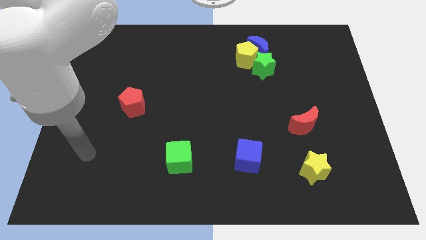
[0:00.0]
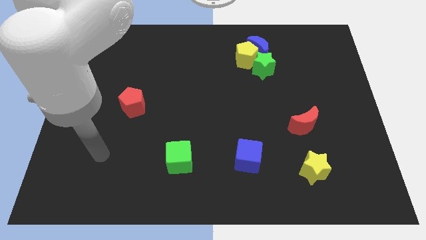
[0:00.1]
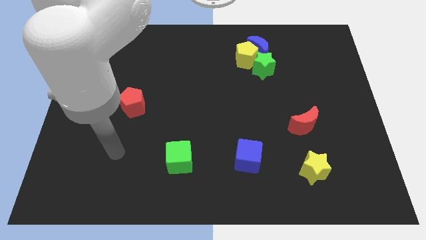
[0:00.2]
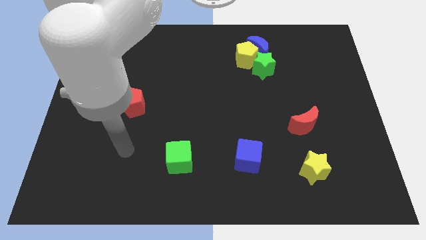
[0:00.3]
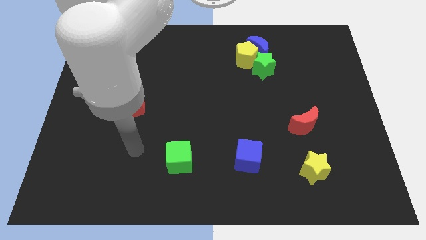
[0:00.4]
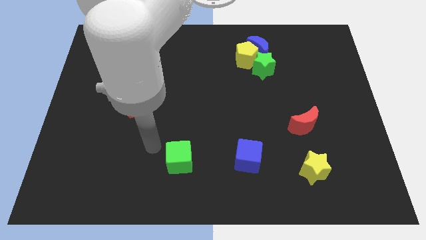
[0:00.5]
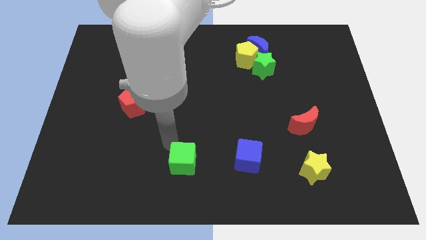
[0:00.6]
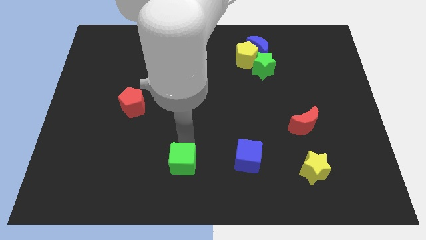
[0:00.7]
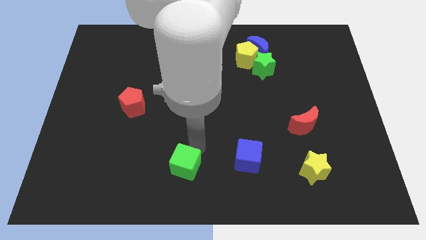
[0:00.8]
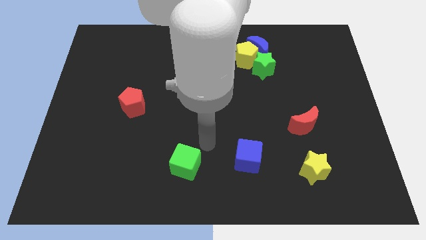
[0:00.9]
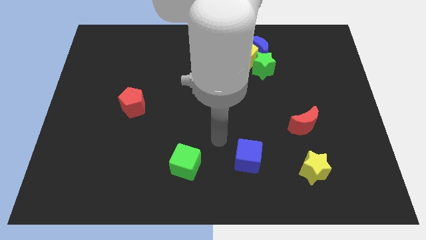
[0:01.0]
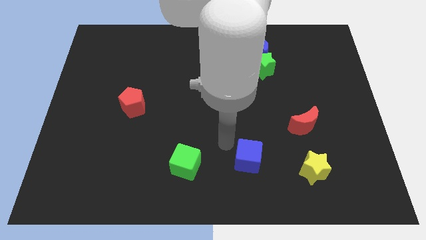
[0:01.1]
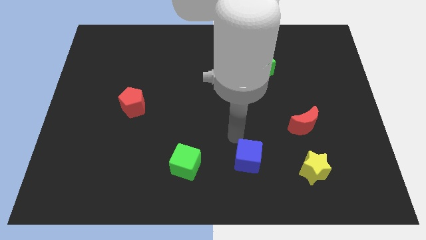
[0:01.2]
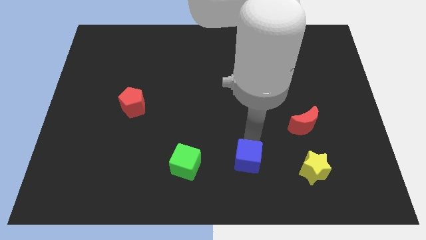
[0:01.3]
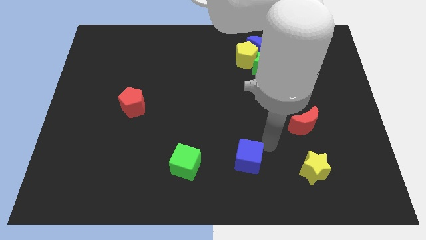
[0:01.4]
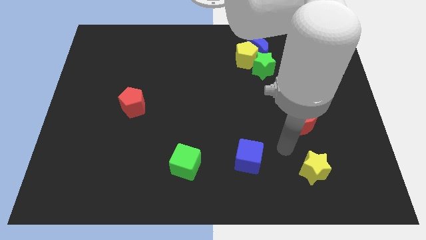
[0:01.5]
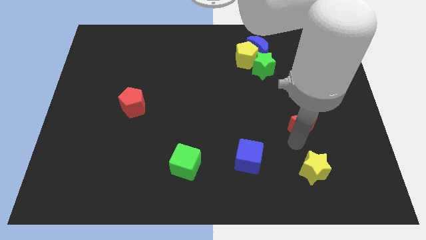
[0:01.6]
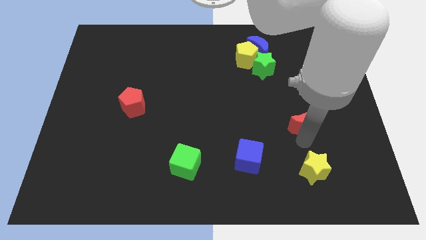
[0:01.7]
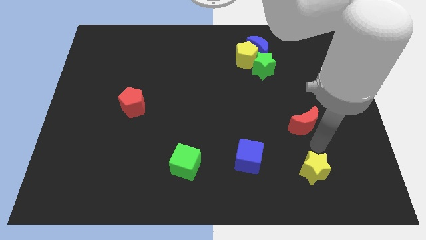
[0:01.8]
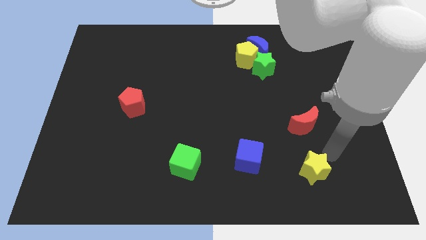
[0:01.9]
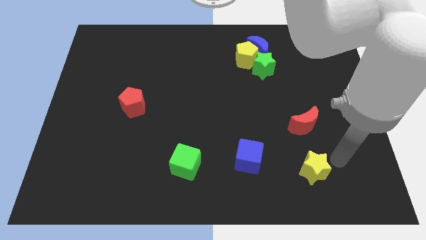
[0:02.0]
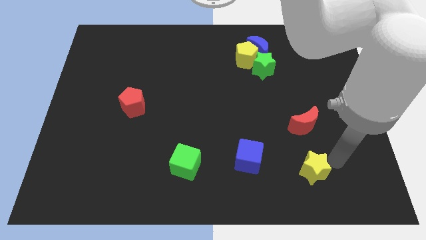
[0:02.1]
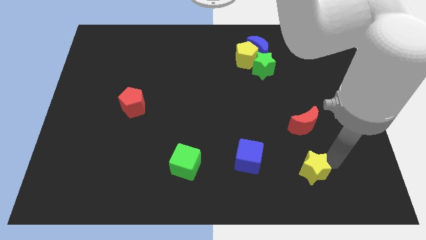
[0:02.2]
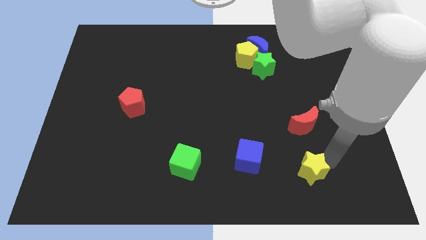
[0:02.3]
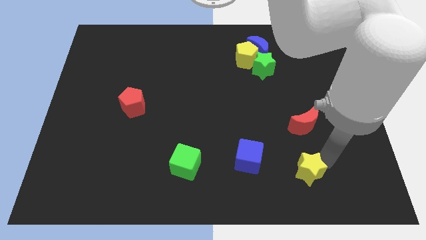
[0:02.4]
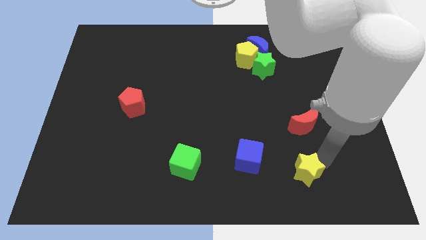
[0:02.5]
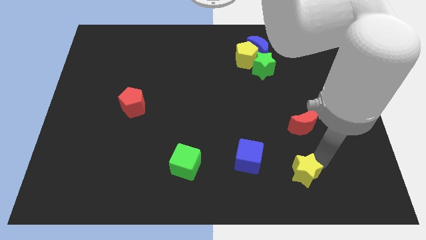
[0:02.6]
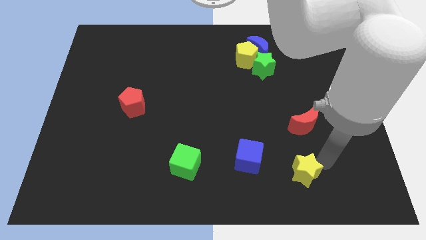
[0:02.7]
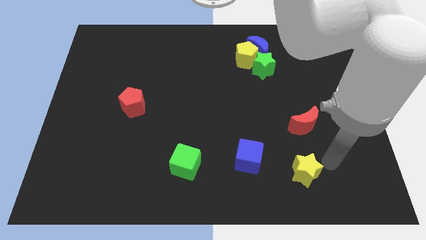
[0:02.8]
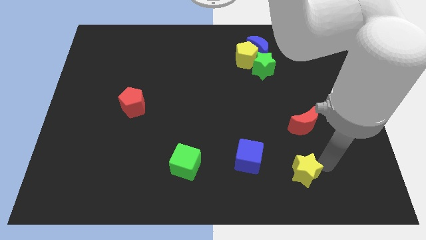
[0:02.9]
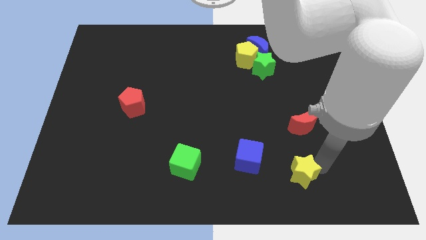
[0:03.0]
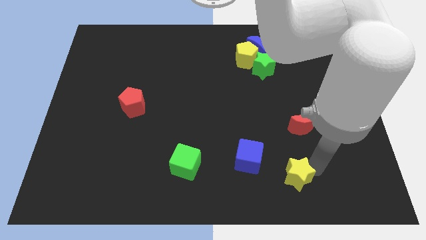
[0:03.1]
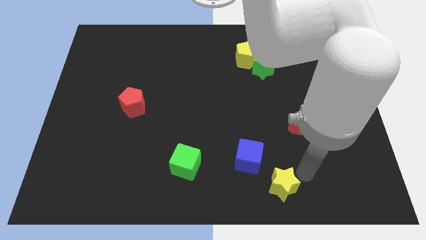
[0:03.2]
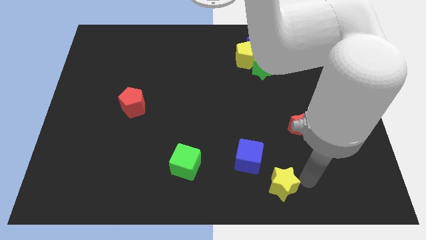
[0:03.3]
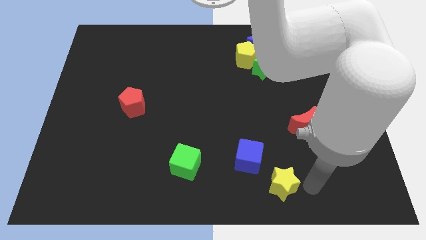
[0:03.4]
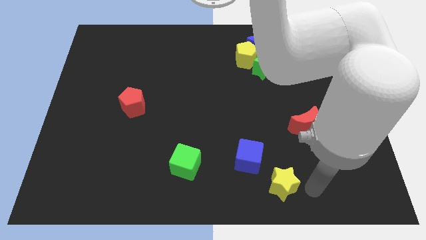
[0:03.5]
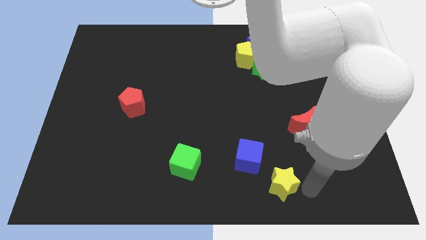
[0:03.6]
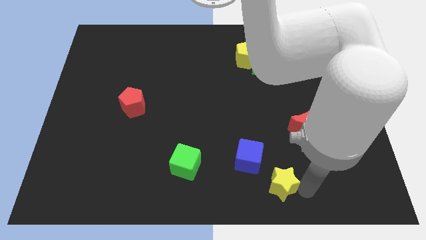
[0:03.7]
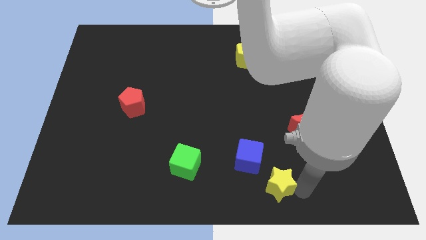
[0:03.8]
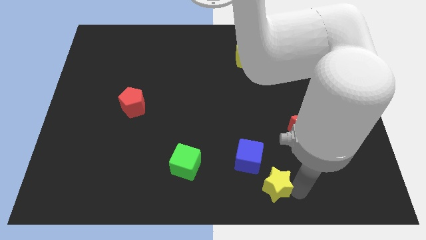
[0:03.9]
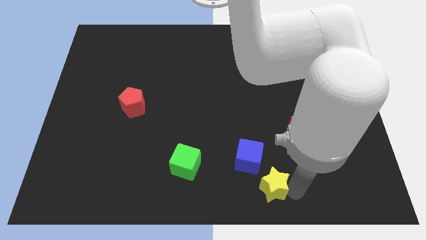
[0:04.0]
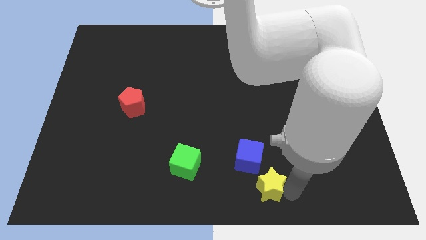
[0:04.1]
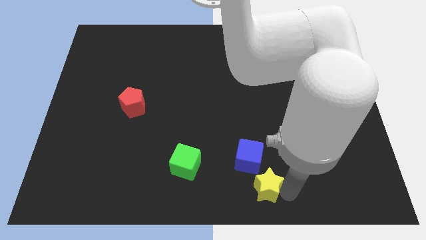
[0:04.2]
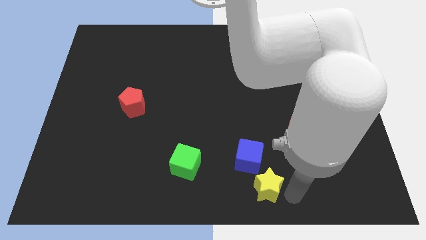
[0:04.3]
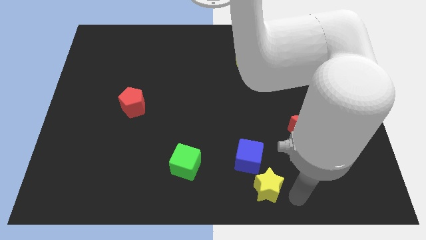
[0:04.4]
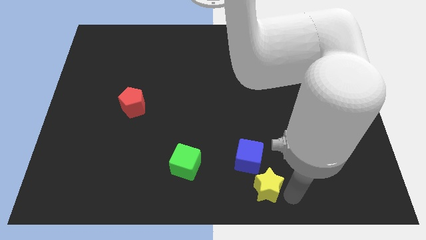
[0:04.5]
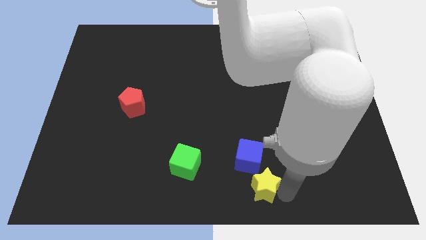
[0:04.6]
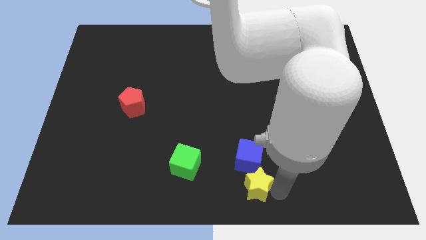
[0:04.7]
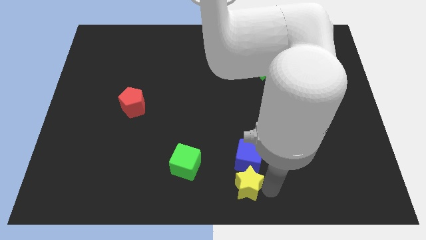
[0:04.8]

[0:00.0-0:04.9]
push the yellow star diagonally down and to the left of the blue cube

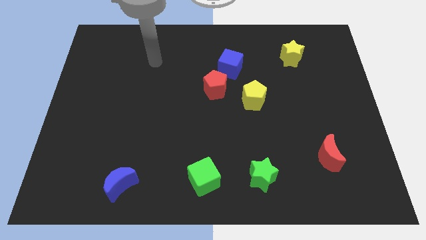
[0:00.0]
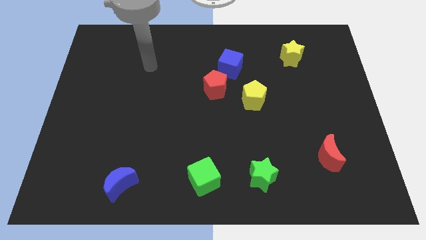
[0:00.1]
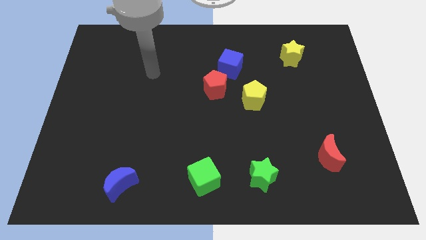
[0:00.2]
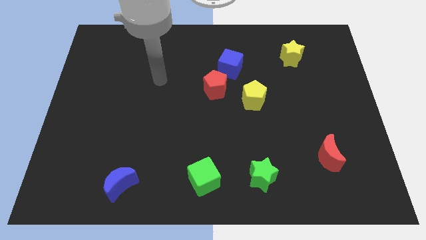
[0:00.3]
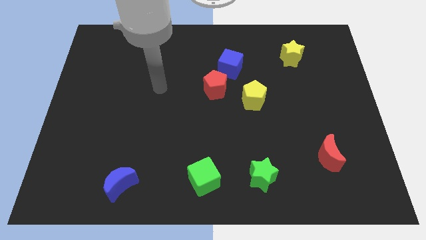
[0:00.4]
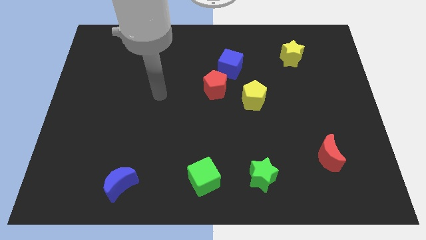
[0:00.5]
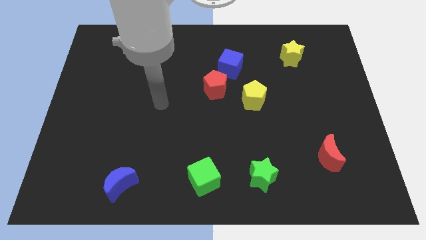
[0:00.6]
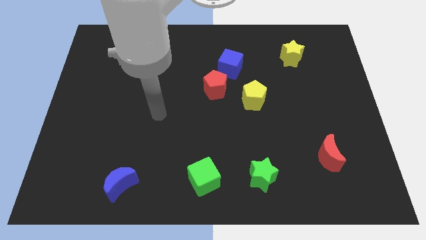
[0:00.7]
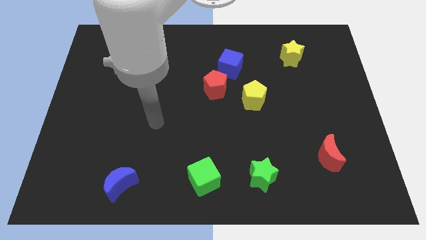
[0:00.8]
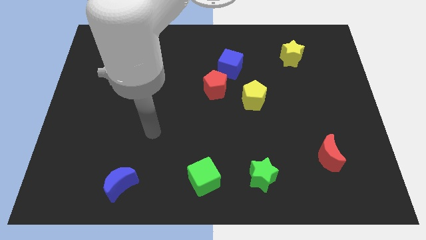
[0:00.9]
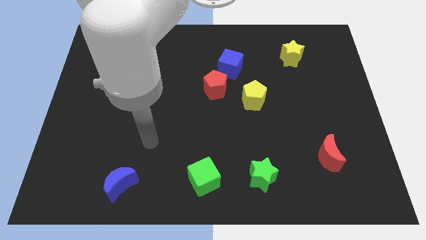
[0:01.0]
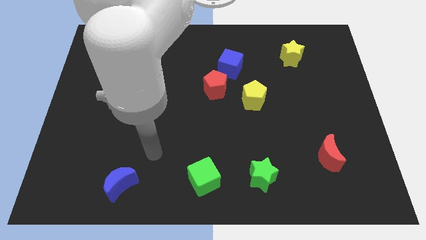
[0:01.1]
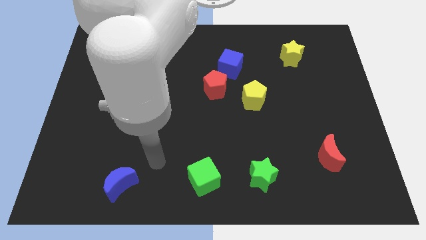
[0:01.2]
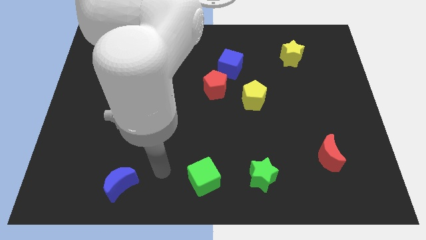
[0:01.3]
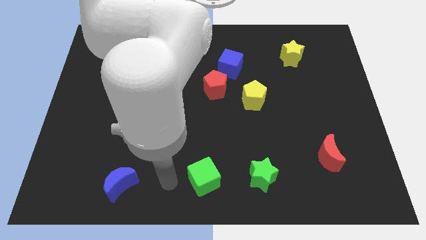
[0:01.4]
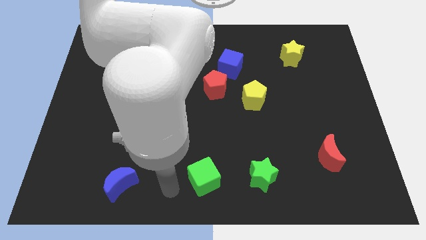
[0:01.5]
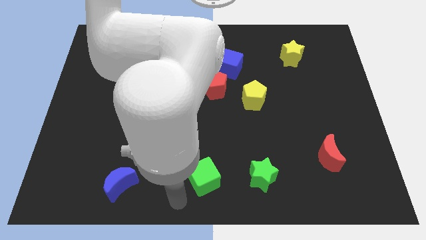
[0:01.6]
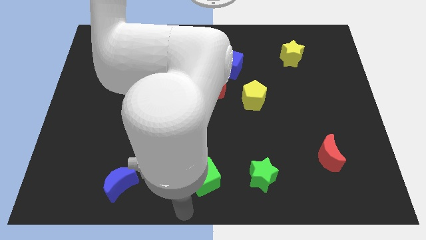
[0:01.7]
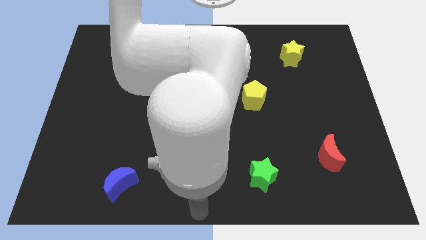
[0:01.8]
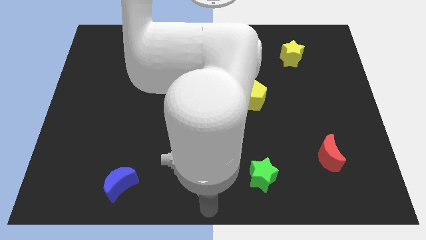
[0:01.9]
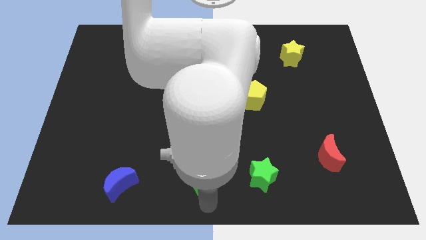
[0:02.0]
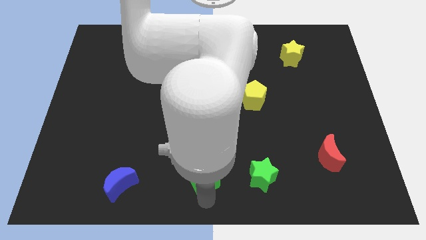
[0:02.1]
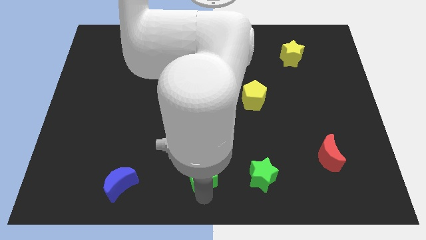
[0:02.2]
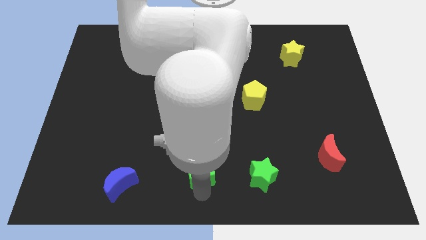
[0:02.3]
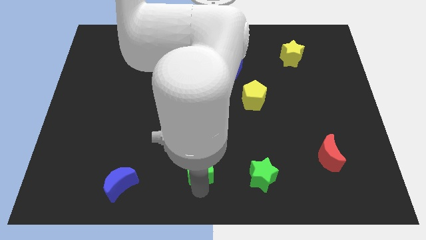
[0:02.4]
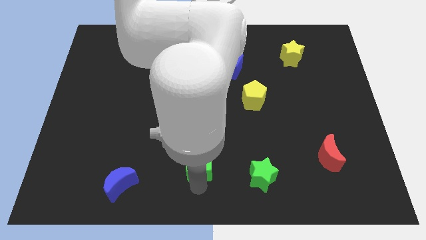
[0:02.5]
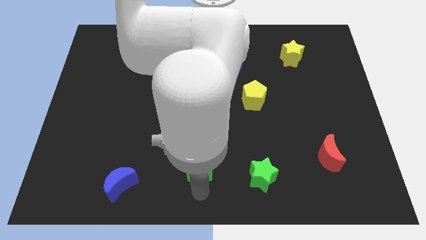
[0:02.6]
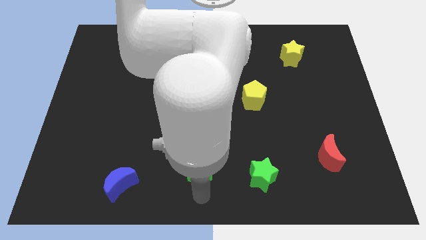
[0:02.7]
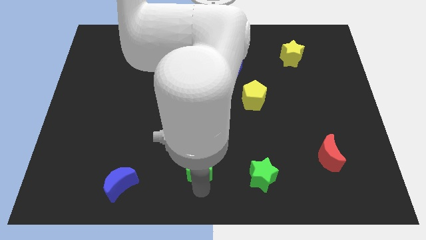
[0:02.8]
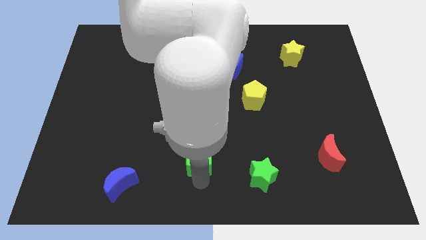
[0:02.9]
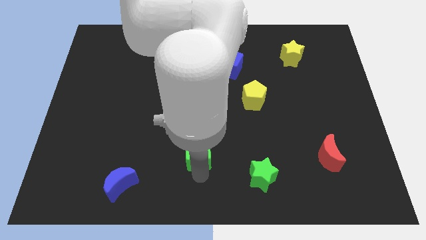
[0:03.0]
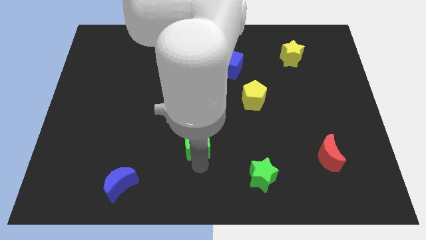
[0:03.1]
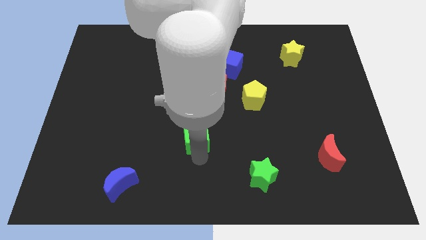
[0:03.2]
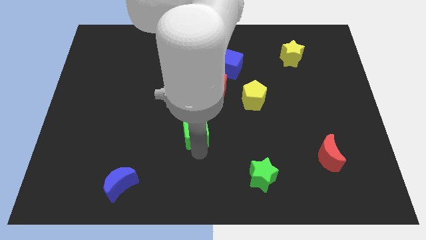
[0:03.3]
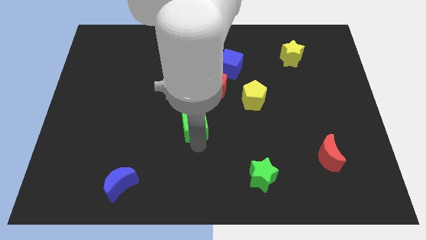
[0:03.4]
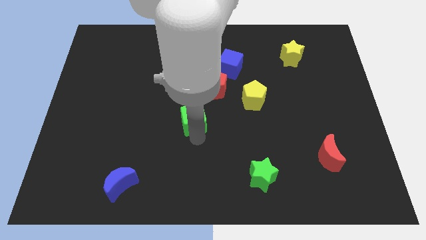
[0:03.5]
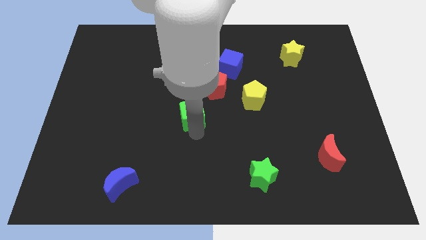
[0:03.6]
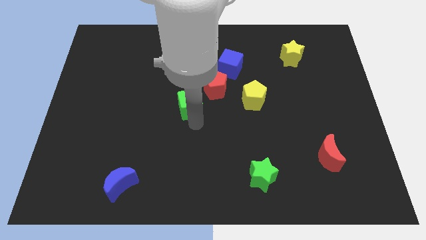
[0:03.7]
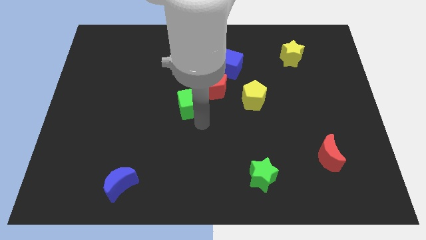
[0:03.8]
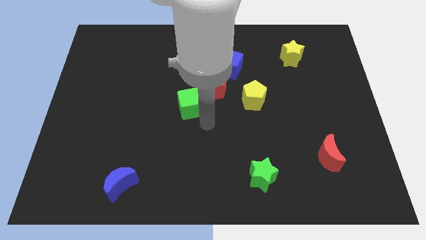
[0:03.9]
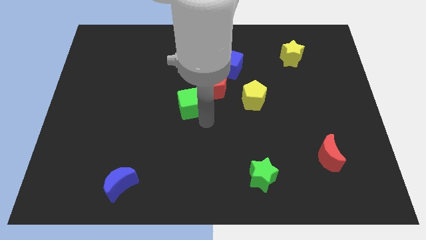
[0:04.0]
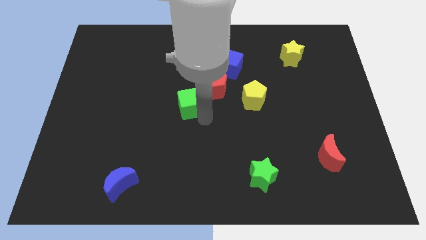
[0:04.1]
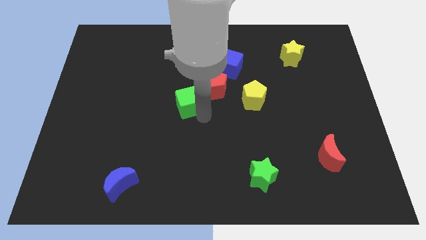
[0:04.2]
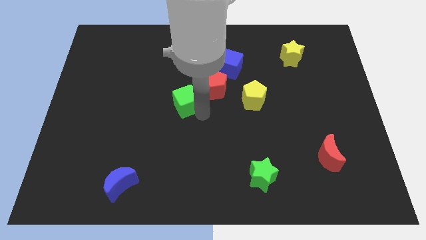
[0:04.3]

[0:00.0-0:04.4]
move the green cube to the left side of the red pentagon
